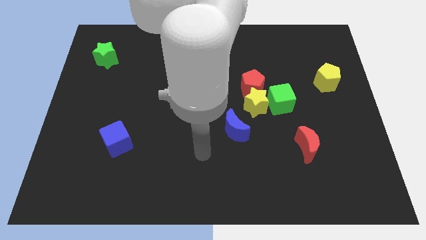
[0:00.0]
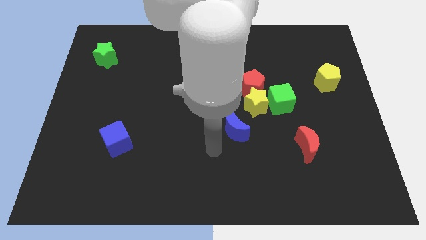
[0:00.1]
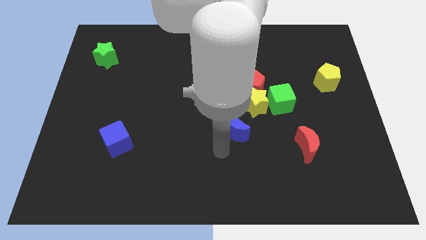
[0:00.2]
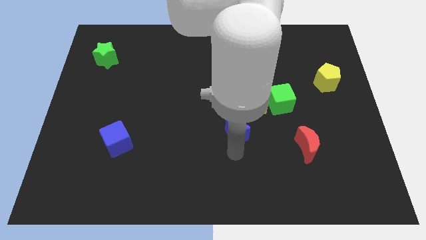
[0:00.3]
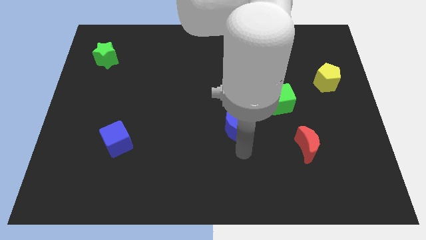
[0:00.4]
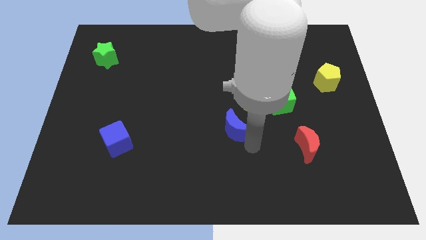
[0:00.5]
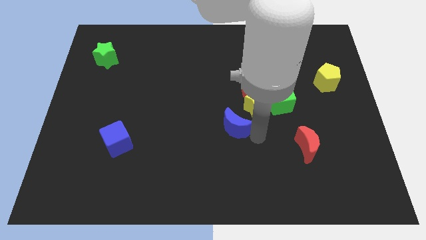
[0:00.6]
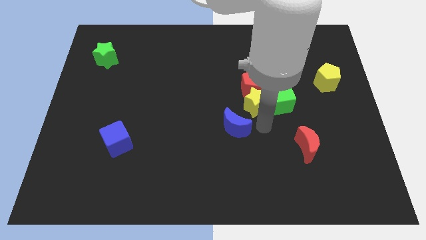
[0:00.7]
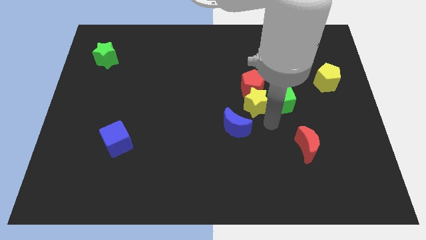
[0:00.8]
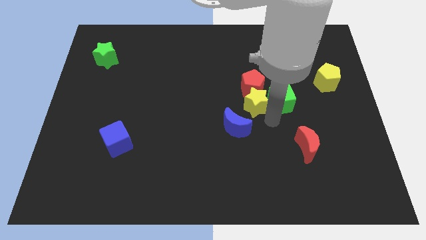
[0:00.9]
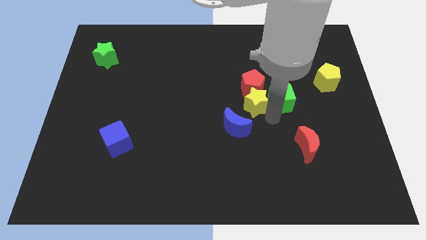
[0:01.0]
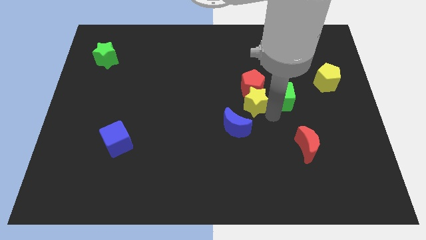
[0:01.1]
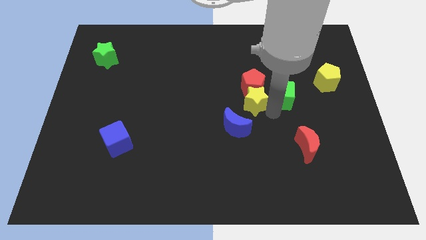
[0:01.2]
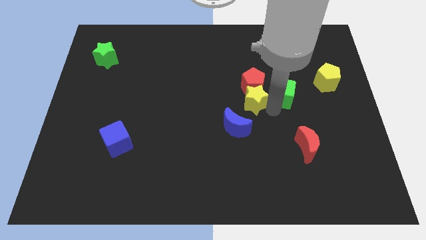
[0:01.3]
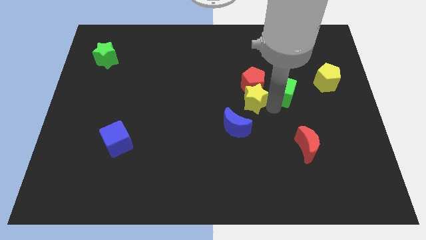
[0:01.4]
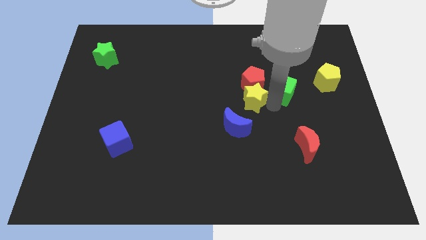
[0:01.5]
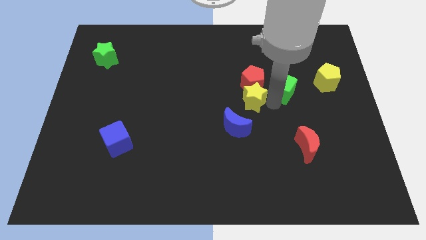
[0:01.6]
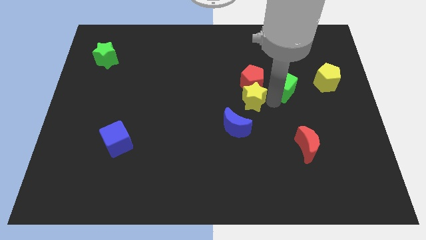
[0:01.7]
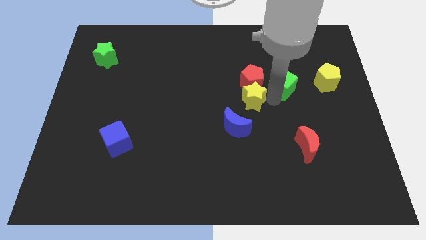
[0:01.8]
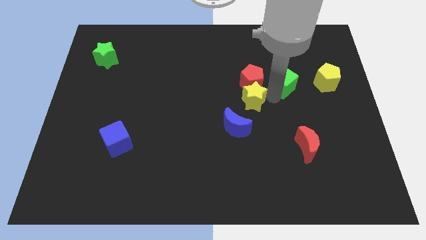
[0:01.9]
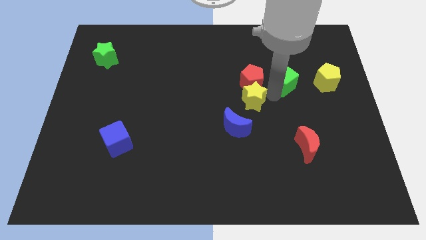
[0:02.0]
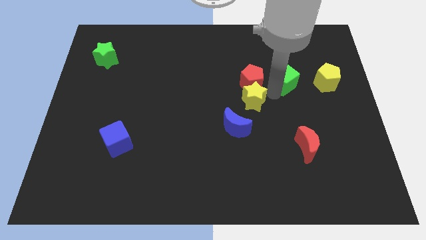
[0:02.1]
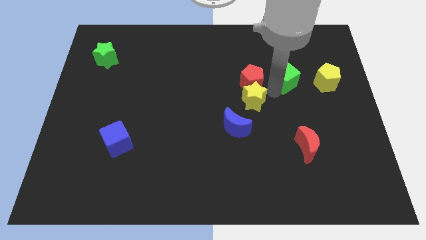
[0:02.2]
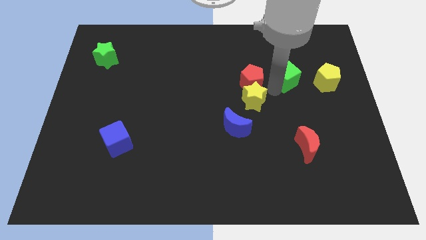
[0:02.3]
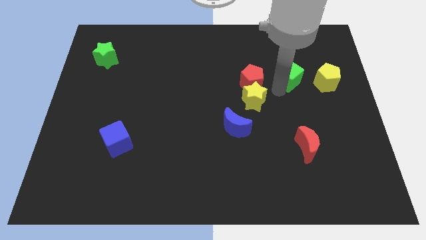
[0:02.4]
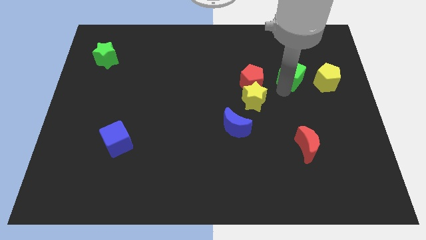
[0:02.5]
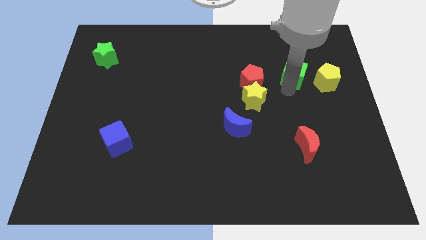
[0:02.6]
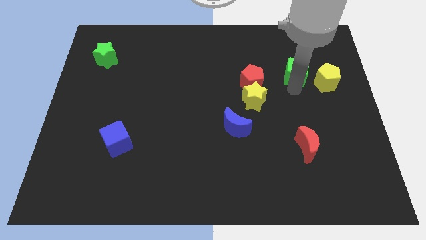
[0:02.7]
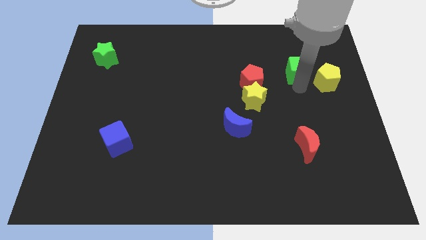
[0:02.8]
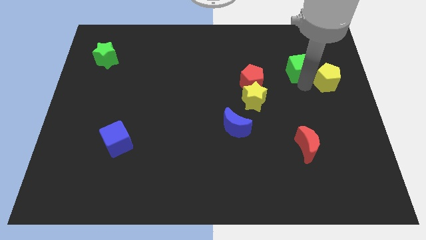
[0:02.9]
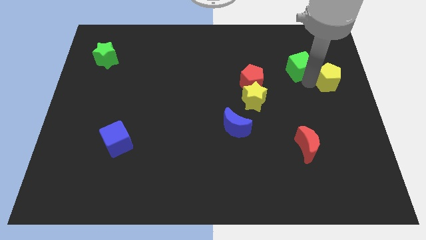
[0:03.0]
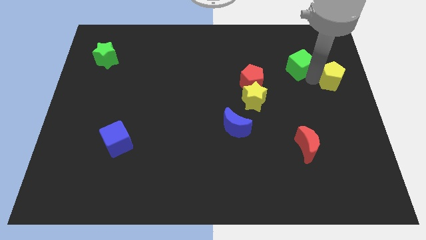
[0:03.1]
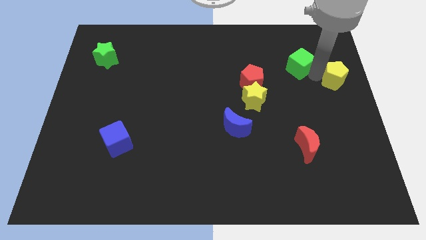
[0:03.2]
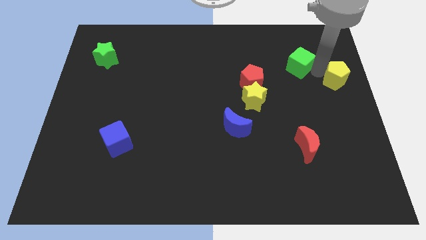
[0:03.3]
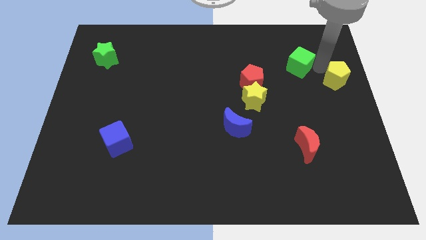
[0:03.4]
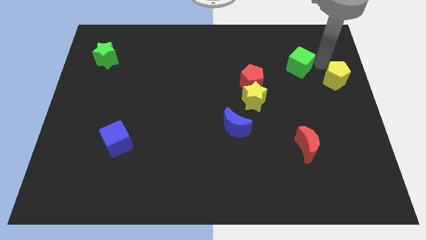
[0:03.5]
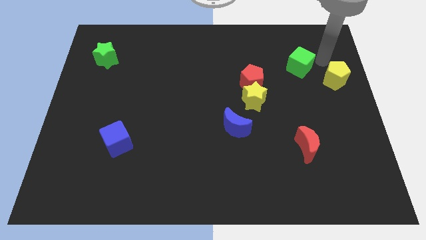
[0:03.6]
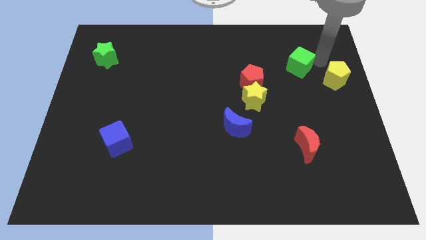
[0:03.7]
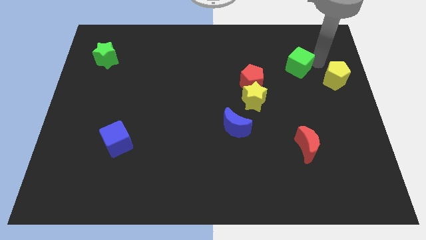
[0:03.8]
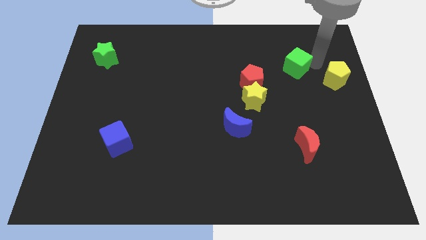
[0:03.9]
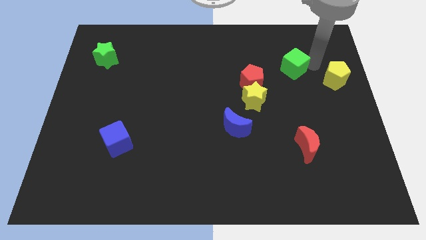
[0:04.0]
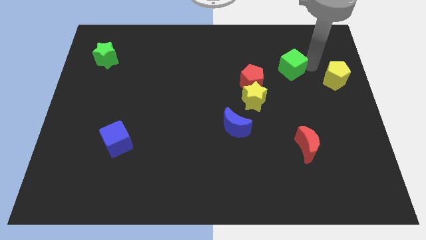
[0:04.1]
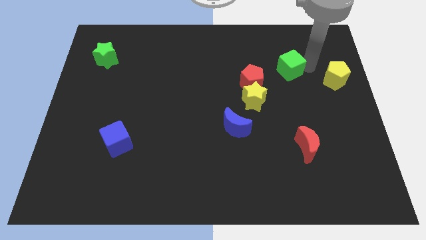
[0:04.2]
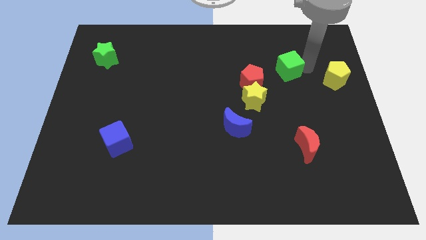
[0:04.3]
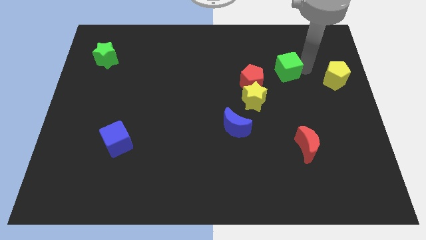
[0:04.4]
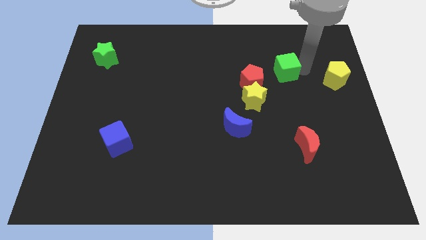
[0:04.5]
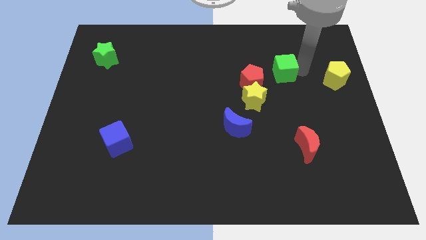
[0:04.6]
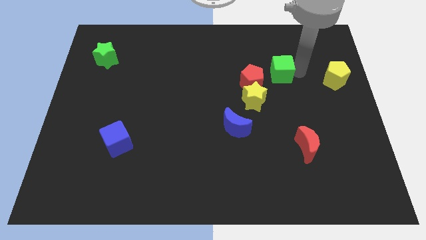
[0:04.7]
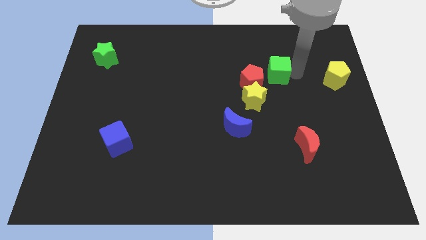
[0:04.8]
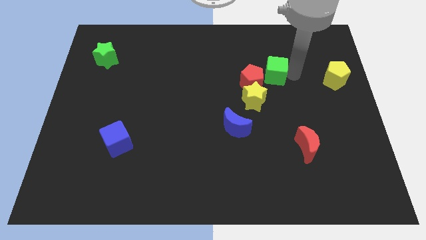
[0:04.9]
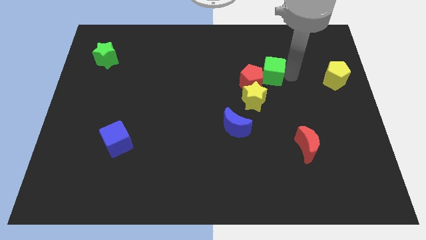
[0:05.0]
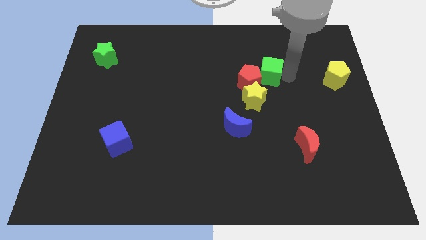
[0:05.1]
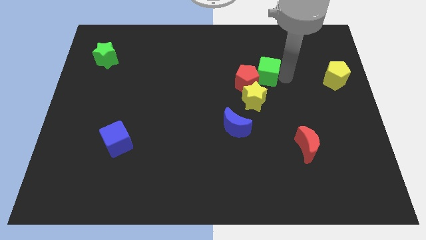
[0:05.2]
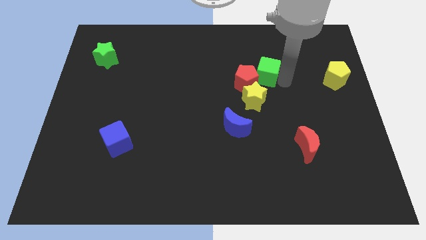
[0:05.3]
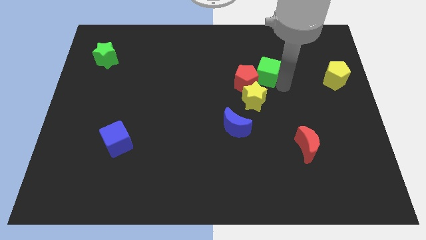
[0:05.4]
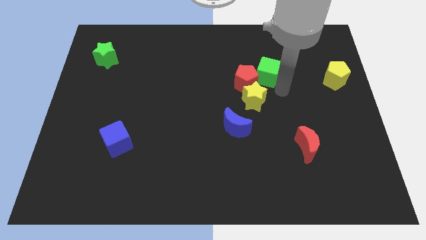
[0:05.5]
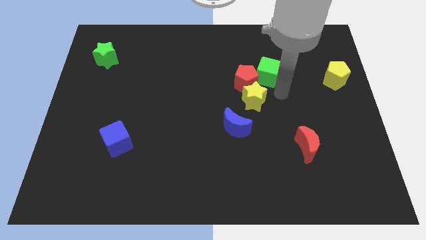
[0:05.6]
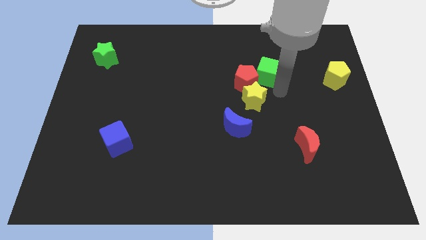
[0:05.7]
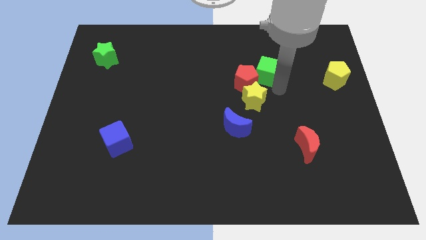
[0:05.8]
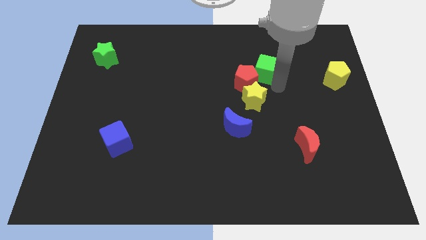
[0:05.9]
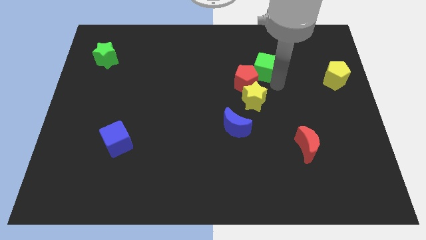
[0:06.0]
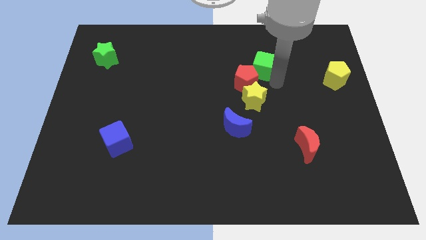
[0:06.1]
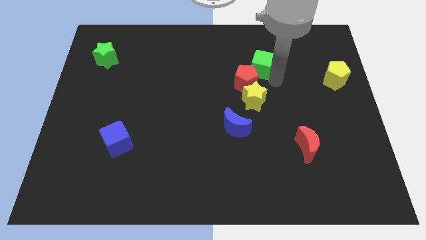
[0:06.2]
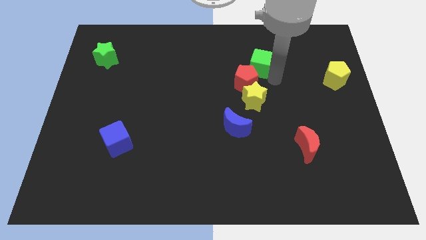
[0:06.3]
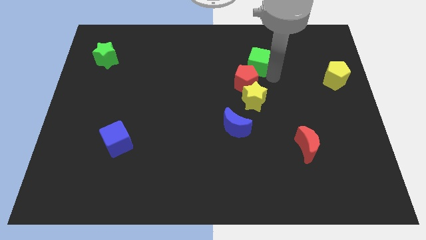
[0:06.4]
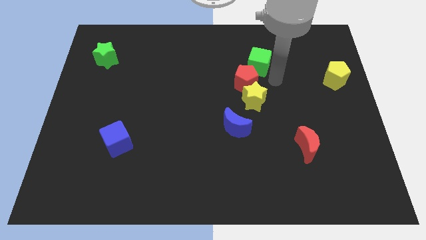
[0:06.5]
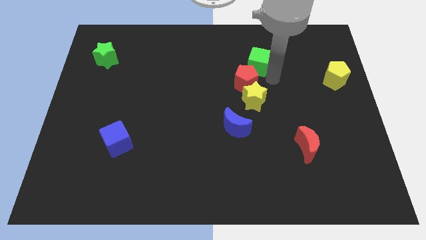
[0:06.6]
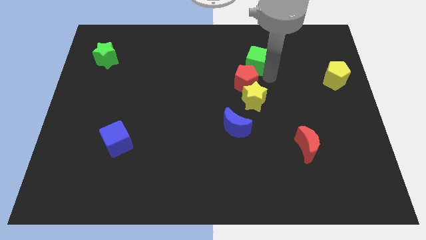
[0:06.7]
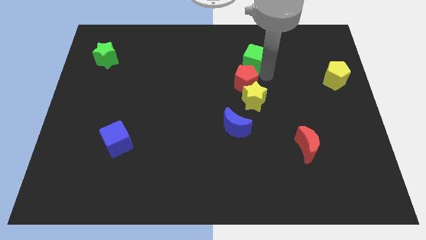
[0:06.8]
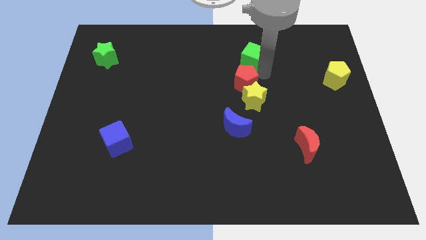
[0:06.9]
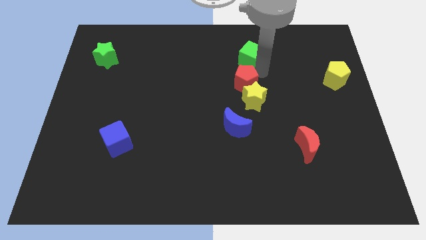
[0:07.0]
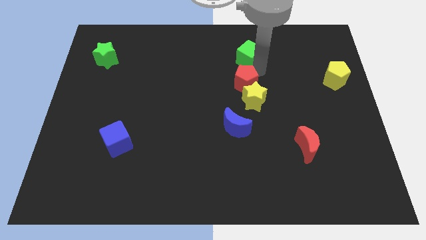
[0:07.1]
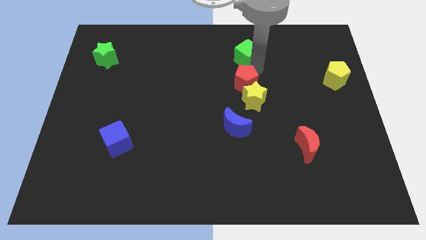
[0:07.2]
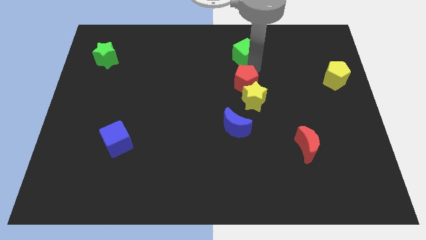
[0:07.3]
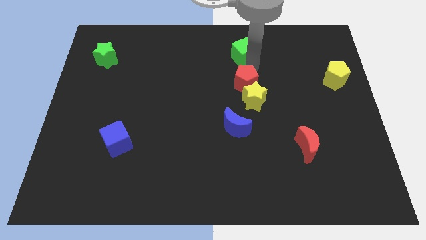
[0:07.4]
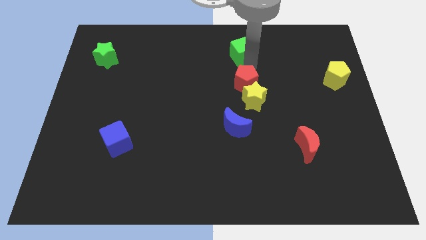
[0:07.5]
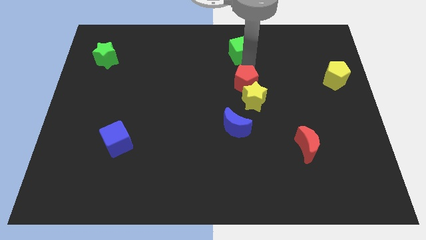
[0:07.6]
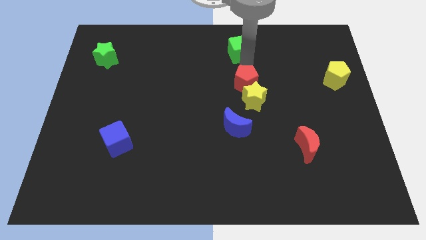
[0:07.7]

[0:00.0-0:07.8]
move the green cube to the top
